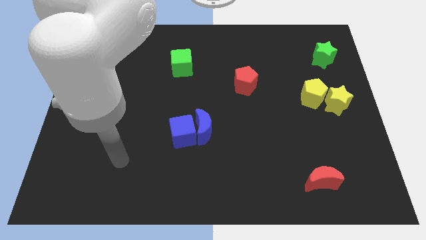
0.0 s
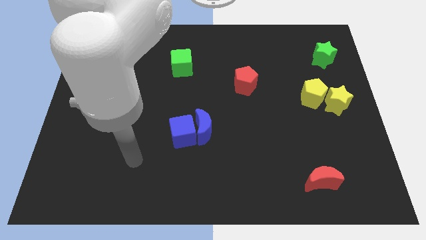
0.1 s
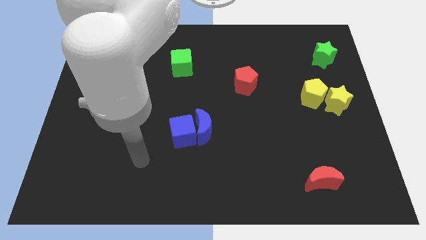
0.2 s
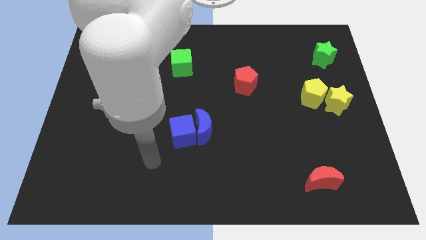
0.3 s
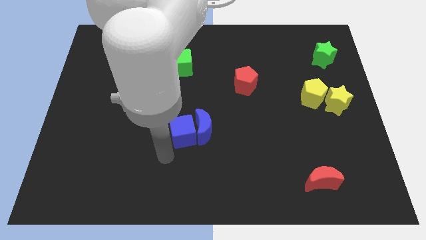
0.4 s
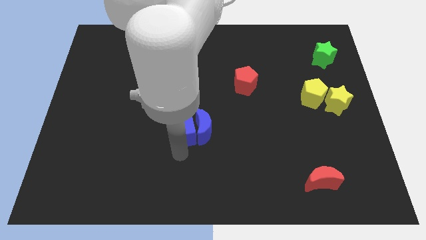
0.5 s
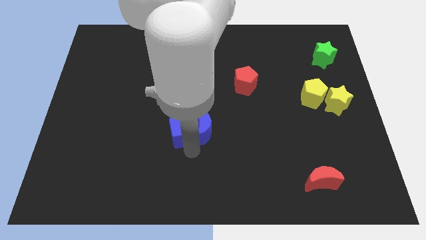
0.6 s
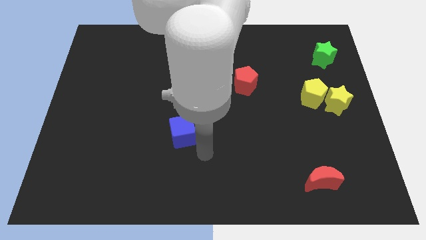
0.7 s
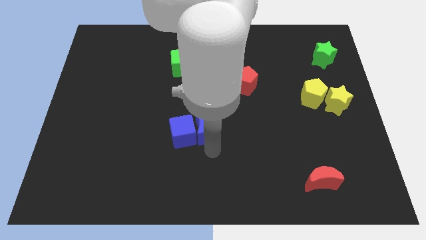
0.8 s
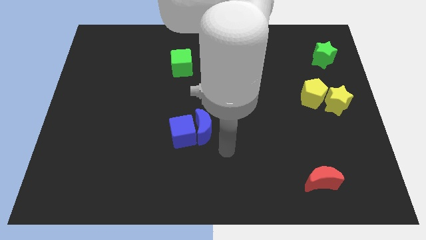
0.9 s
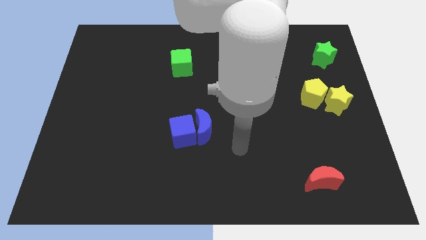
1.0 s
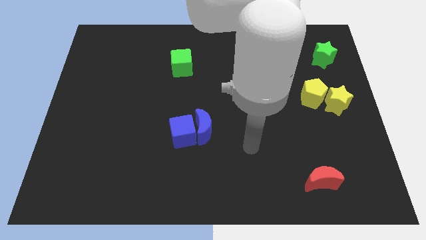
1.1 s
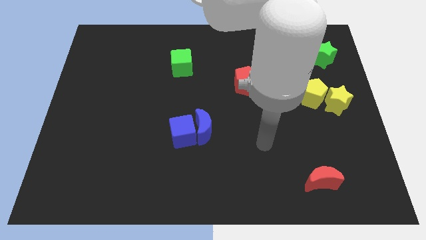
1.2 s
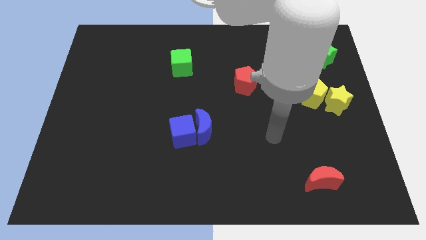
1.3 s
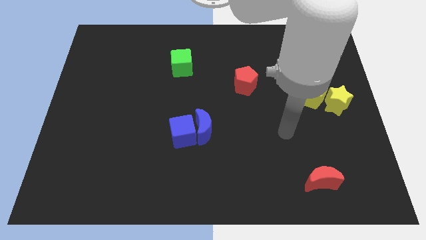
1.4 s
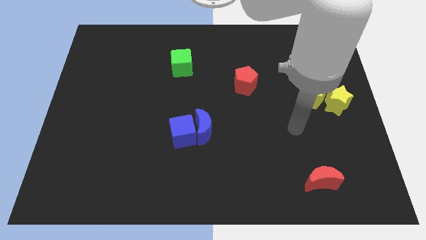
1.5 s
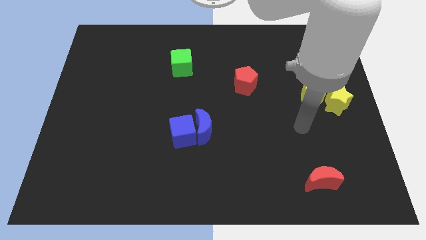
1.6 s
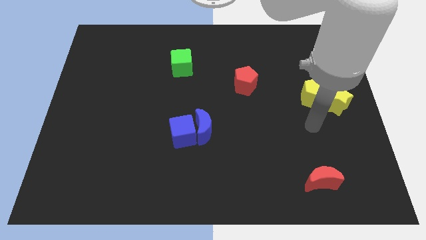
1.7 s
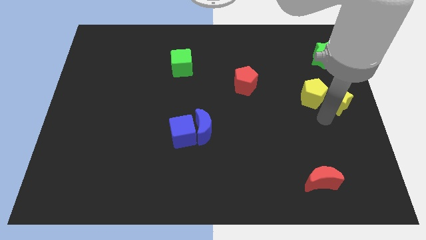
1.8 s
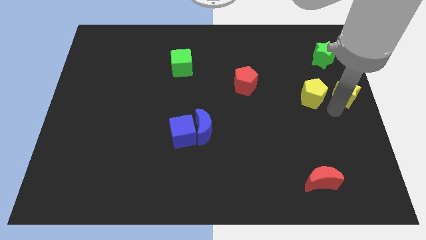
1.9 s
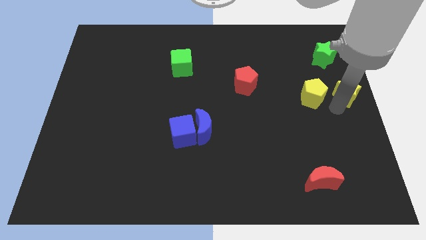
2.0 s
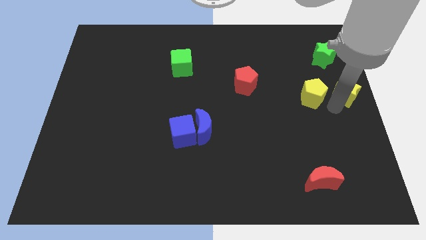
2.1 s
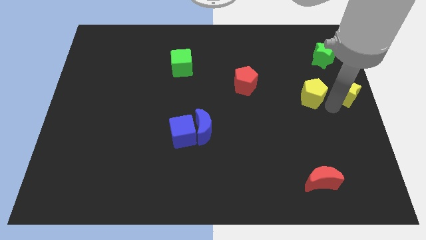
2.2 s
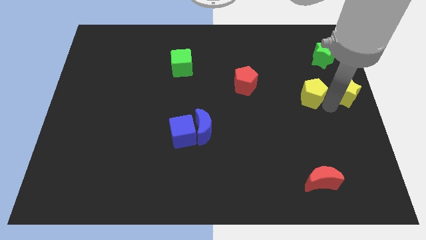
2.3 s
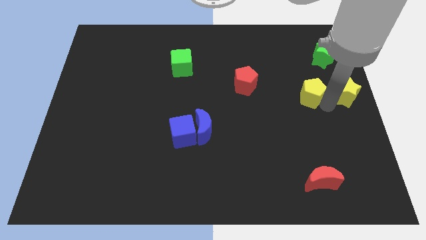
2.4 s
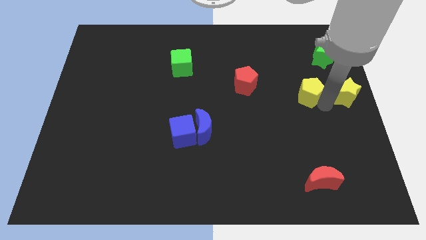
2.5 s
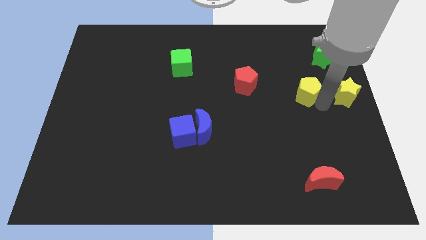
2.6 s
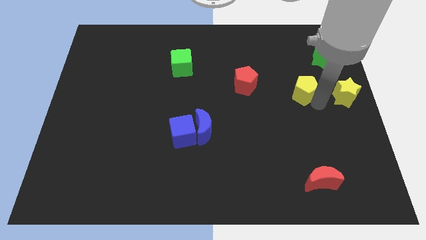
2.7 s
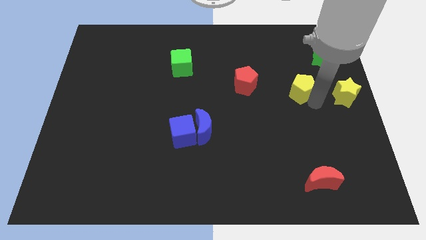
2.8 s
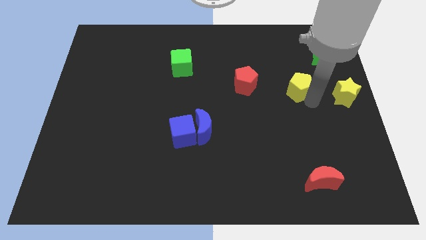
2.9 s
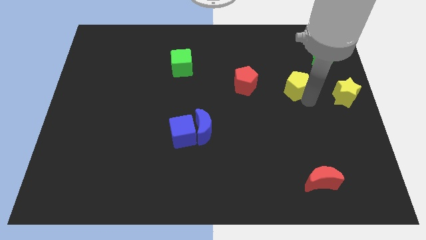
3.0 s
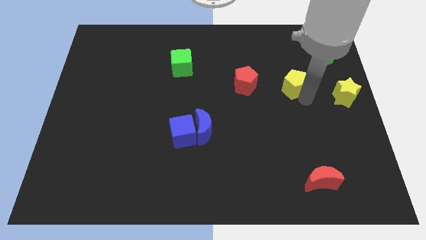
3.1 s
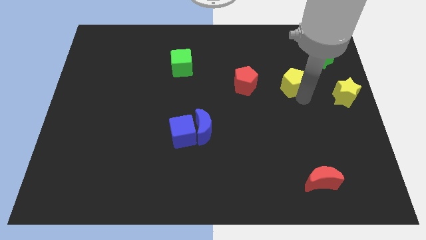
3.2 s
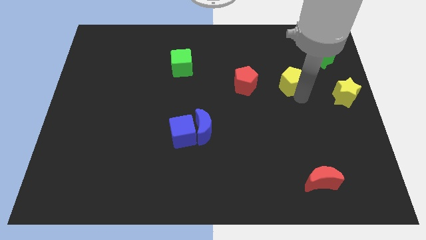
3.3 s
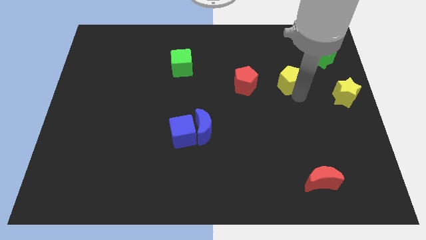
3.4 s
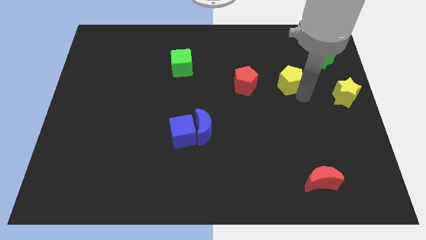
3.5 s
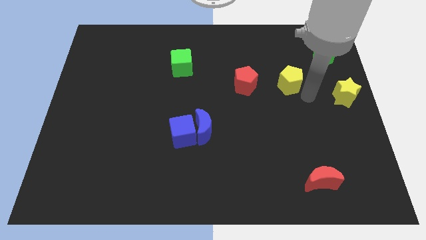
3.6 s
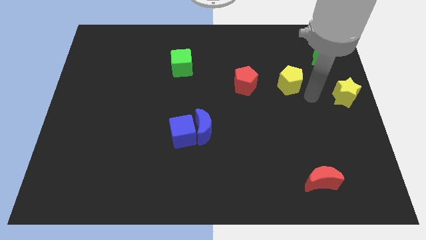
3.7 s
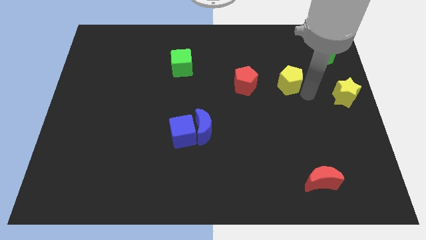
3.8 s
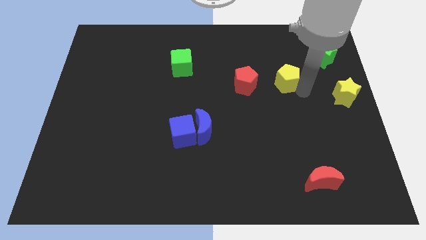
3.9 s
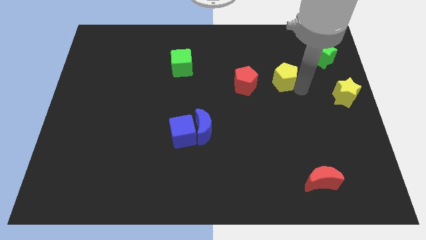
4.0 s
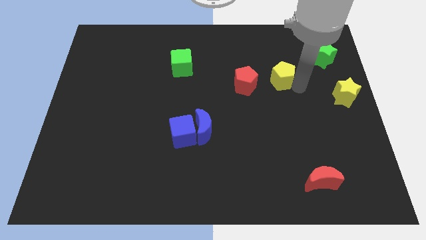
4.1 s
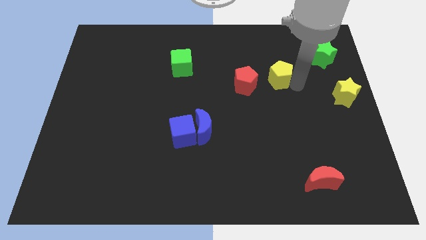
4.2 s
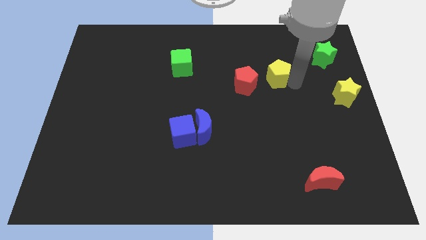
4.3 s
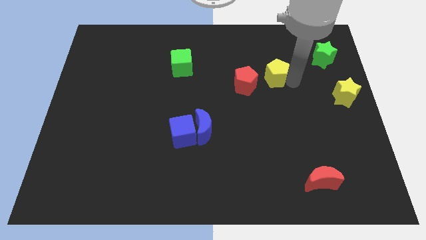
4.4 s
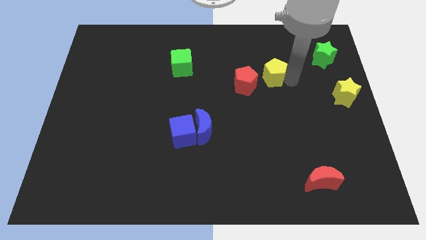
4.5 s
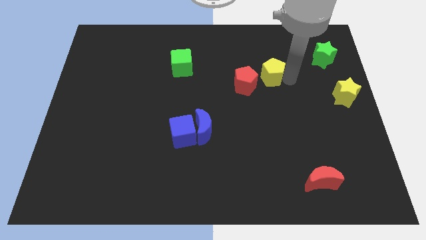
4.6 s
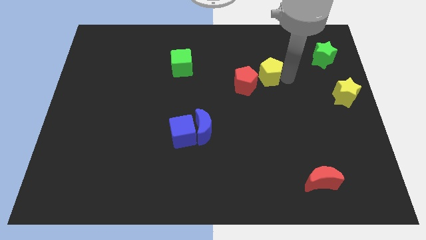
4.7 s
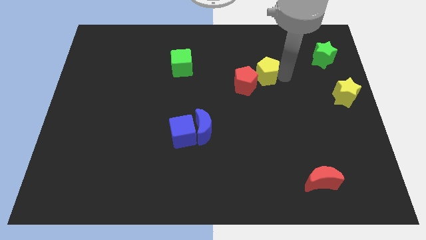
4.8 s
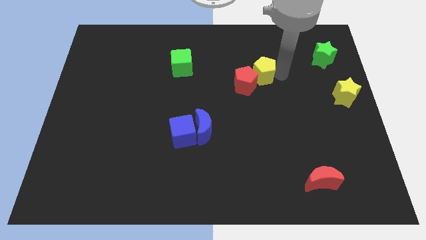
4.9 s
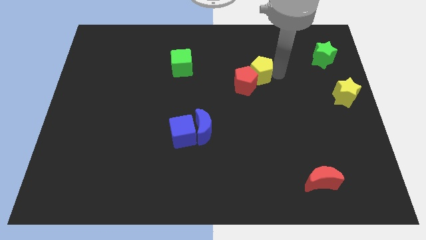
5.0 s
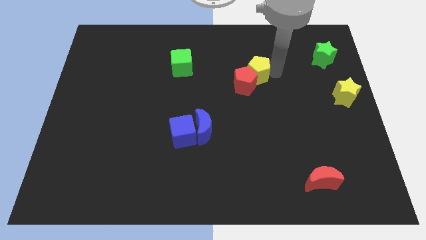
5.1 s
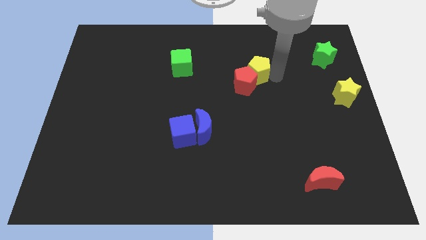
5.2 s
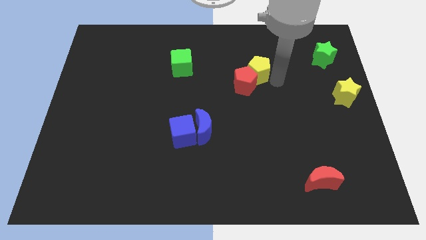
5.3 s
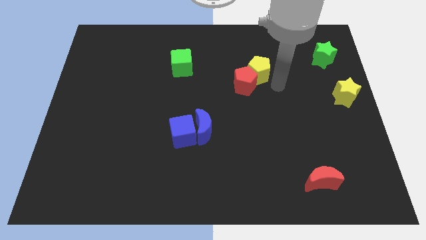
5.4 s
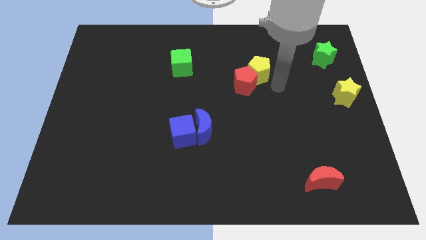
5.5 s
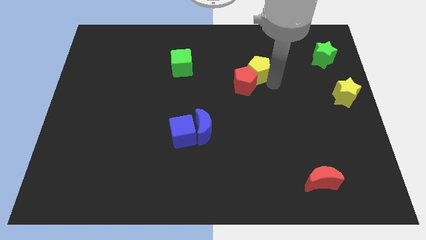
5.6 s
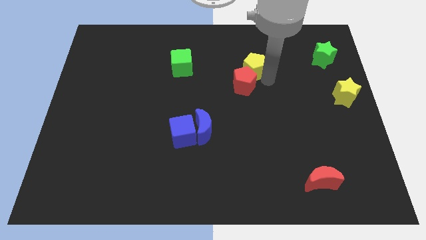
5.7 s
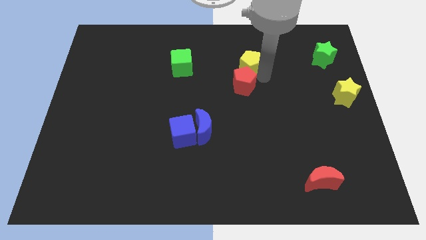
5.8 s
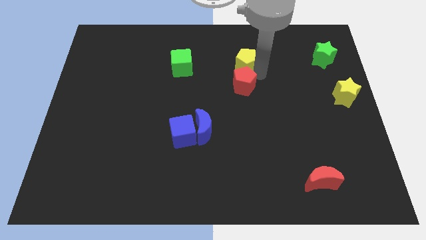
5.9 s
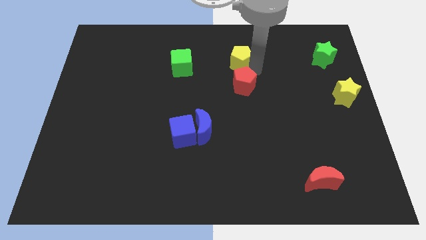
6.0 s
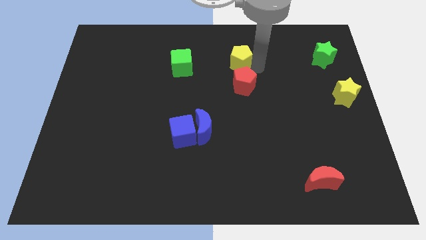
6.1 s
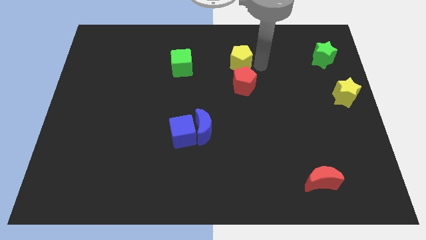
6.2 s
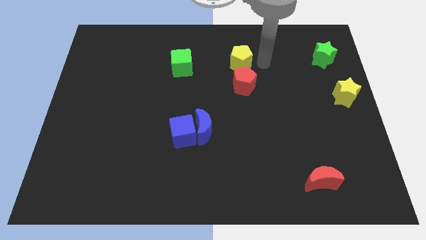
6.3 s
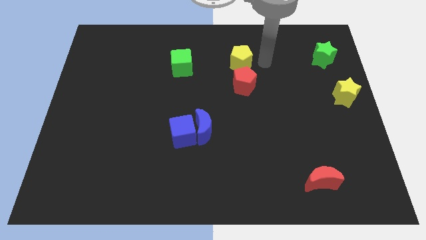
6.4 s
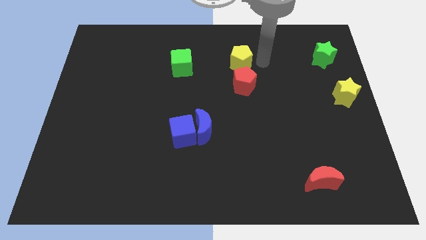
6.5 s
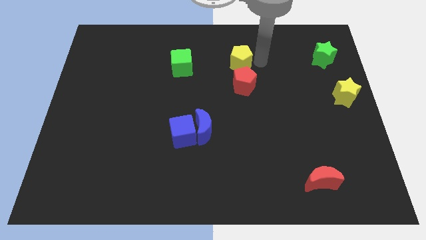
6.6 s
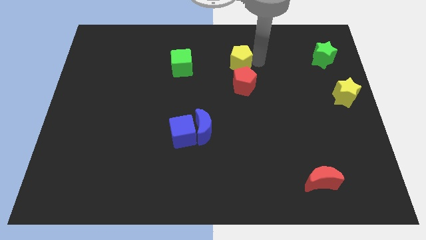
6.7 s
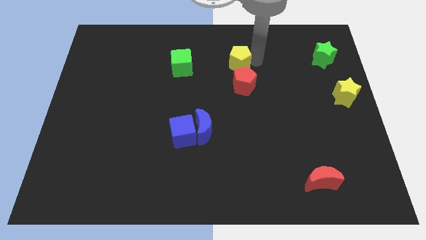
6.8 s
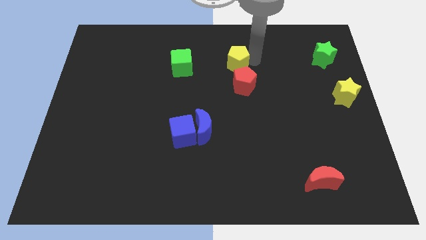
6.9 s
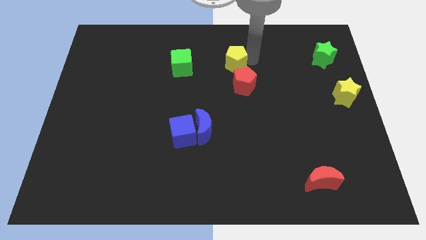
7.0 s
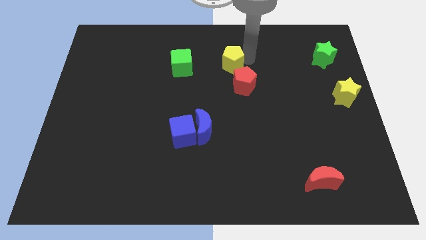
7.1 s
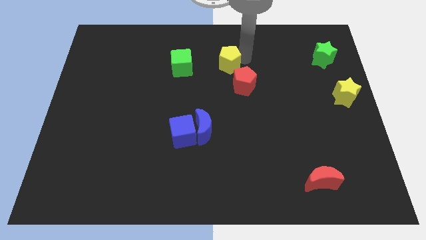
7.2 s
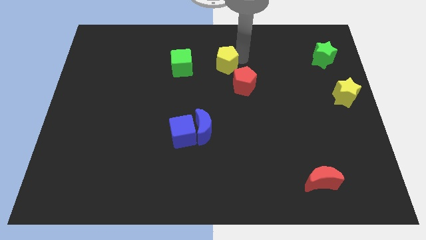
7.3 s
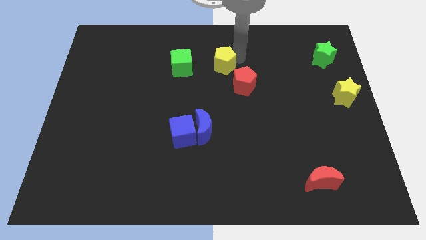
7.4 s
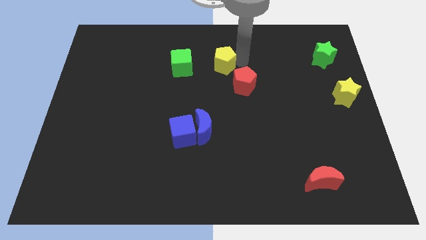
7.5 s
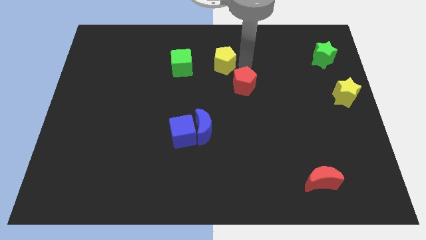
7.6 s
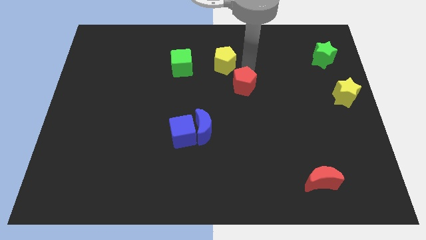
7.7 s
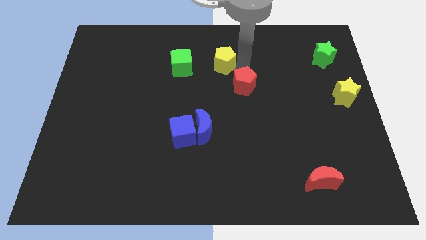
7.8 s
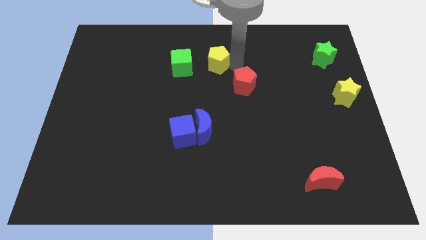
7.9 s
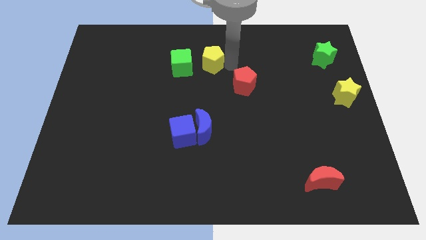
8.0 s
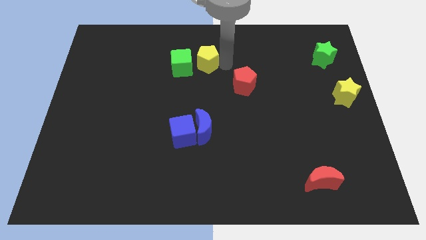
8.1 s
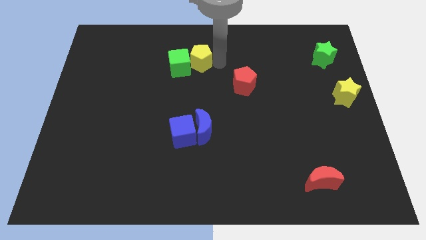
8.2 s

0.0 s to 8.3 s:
move the yellow pentagon next to the green cube
